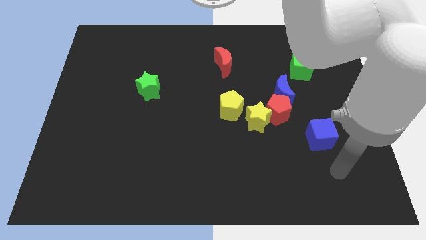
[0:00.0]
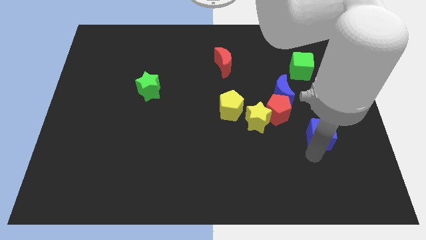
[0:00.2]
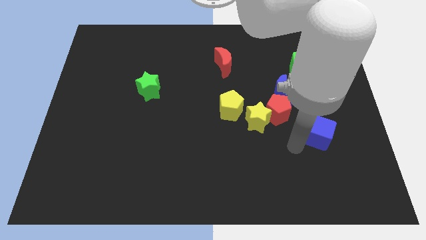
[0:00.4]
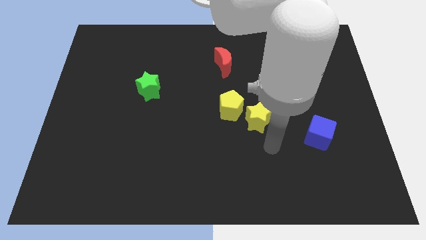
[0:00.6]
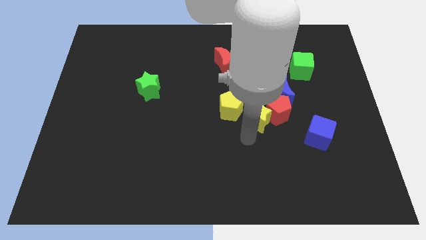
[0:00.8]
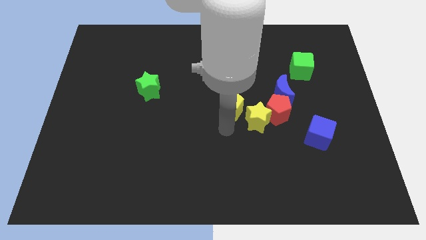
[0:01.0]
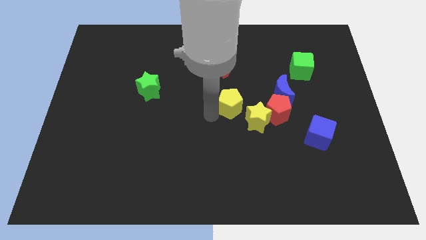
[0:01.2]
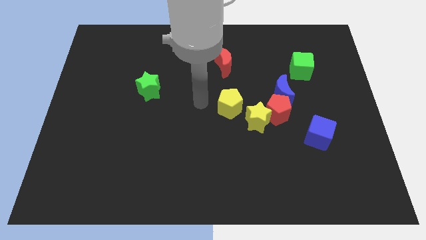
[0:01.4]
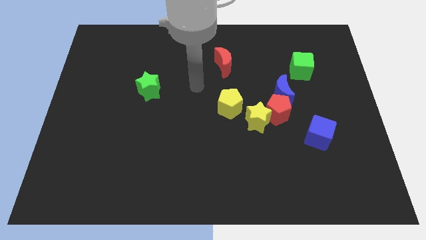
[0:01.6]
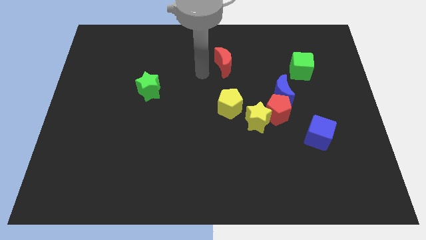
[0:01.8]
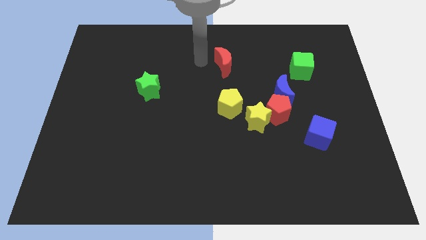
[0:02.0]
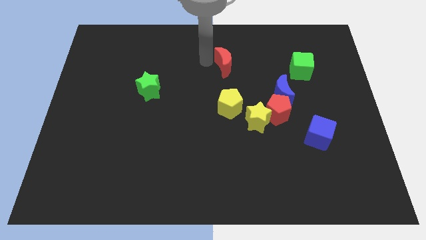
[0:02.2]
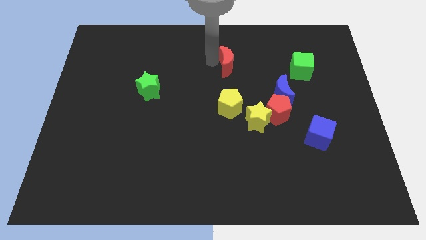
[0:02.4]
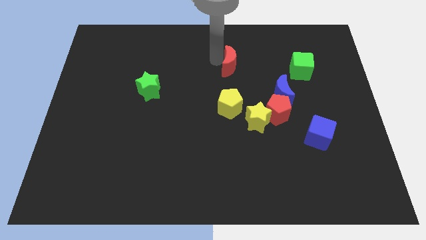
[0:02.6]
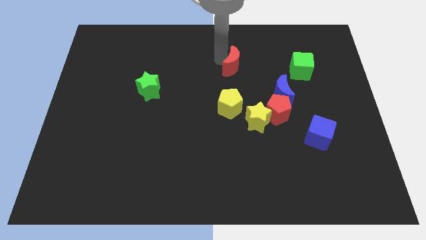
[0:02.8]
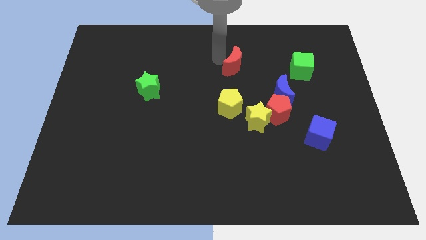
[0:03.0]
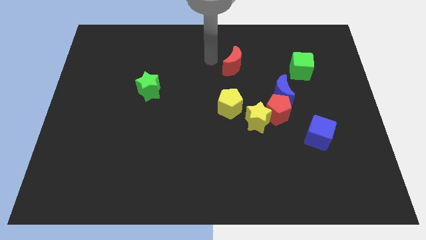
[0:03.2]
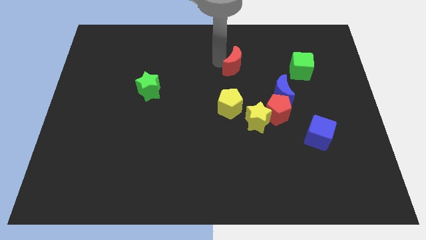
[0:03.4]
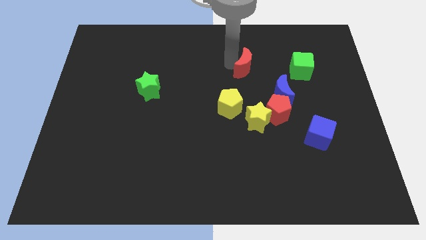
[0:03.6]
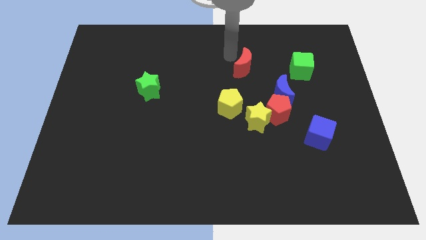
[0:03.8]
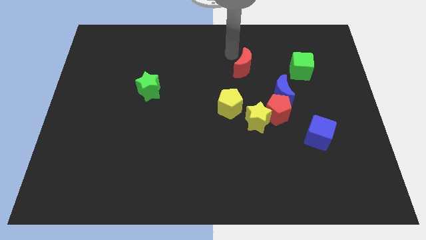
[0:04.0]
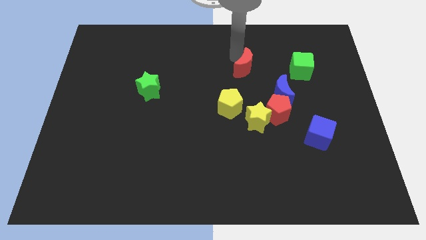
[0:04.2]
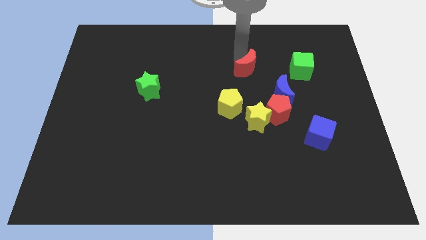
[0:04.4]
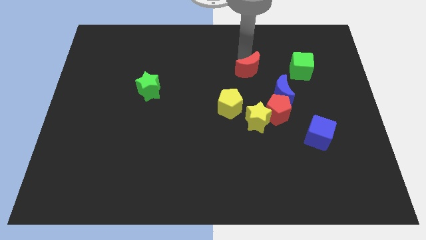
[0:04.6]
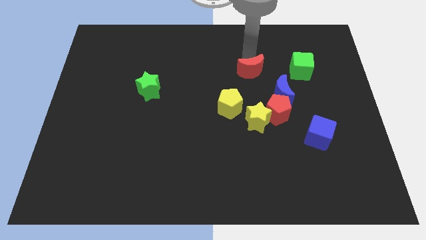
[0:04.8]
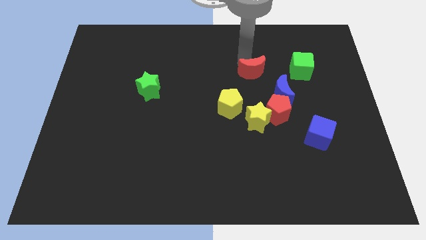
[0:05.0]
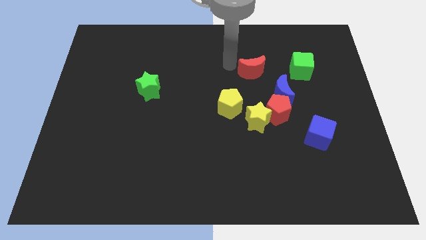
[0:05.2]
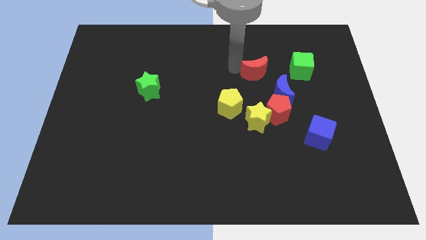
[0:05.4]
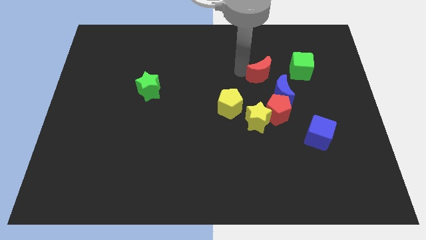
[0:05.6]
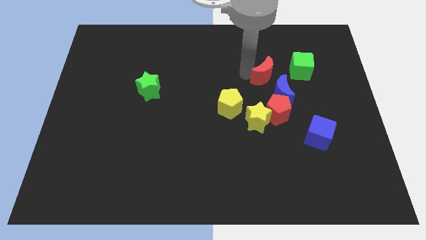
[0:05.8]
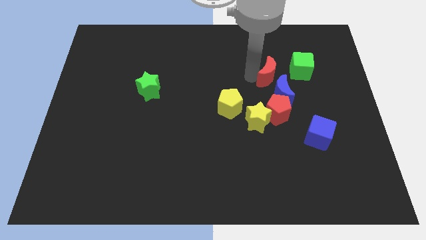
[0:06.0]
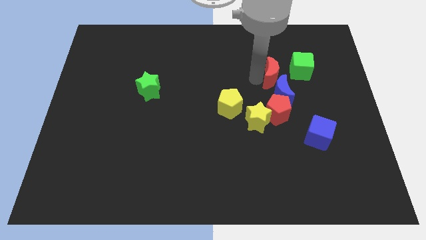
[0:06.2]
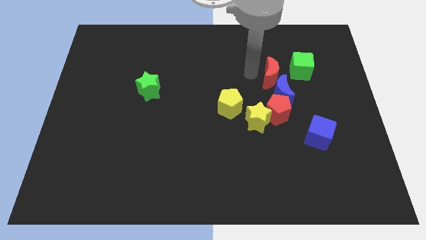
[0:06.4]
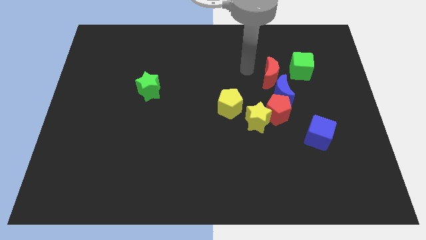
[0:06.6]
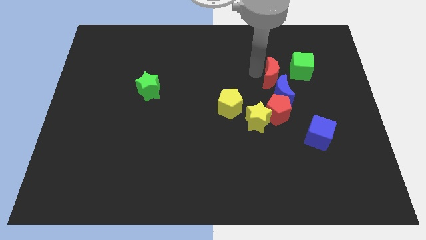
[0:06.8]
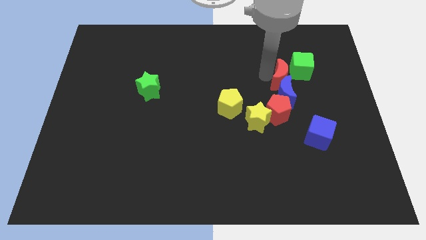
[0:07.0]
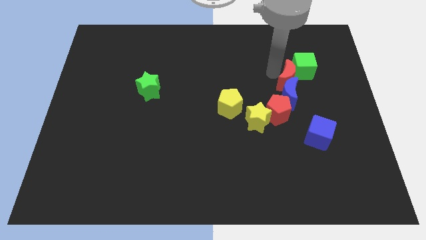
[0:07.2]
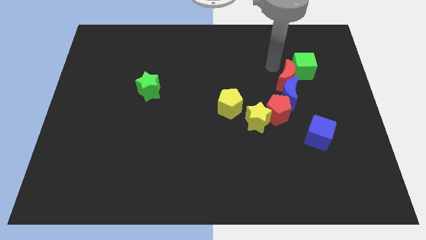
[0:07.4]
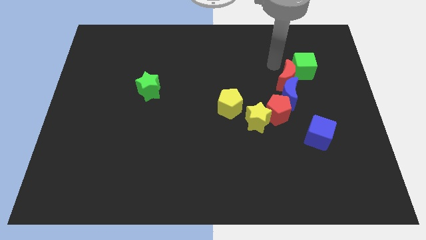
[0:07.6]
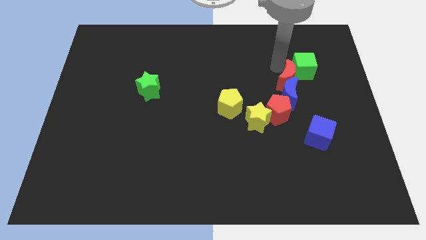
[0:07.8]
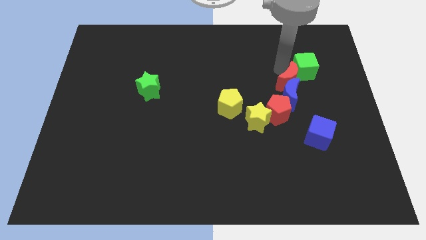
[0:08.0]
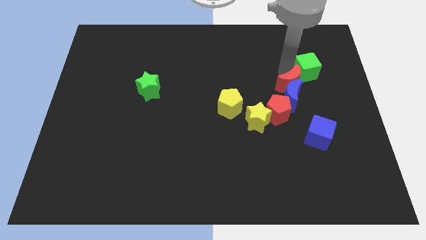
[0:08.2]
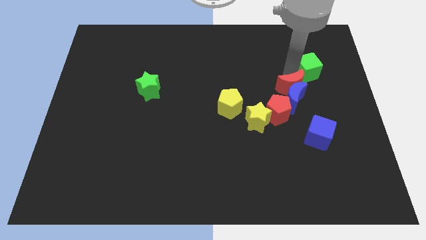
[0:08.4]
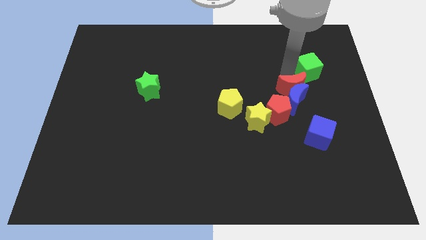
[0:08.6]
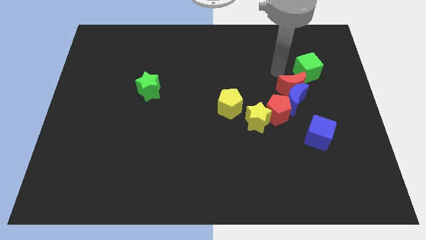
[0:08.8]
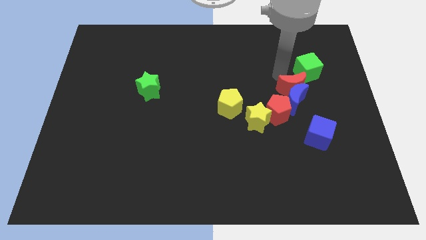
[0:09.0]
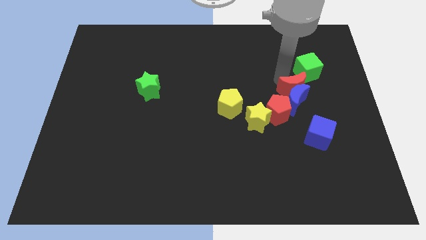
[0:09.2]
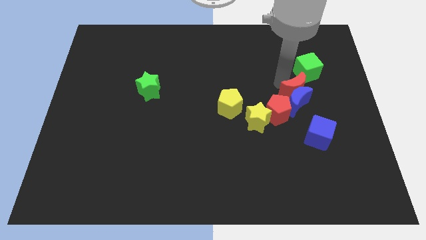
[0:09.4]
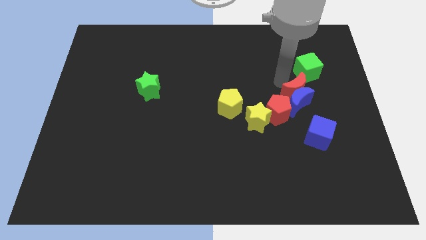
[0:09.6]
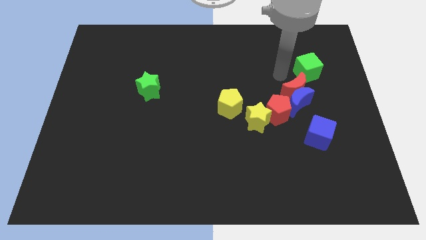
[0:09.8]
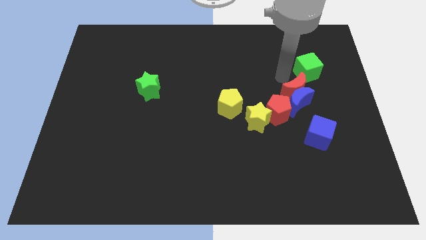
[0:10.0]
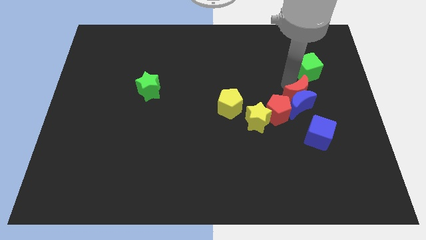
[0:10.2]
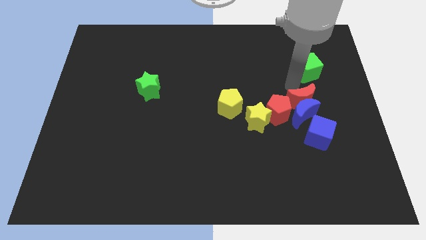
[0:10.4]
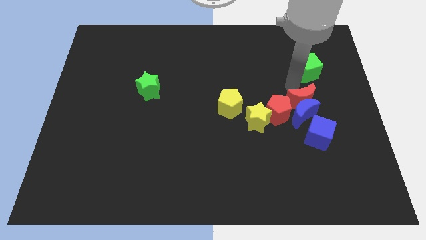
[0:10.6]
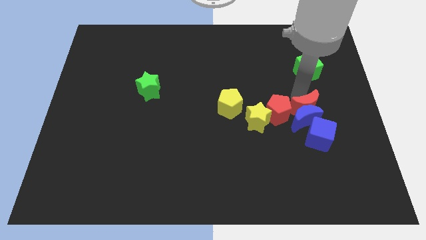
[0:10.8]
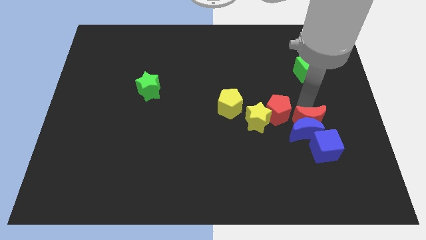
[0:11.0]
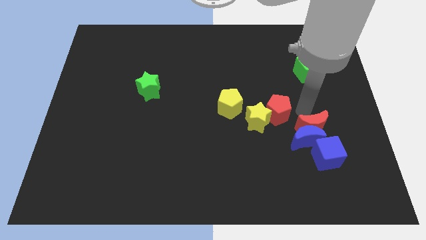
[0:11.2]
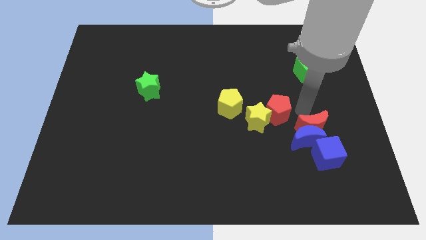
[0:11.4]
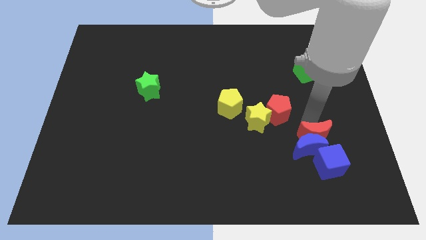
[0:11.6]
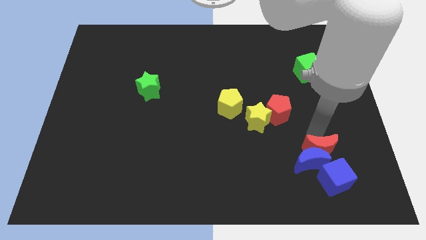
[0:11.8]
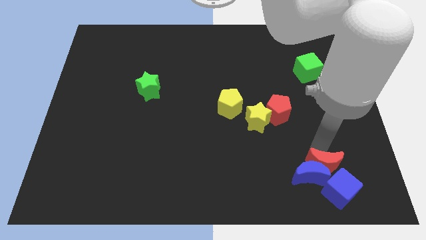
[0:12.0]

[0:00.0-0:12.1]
move the red moon to the blue cube
